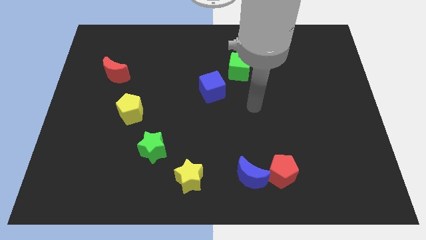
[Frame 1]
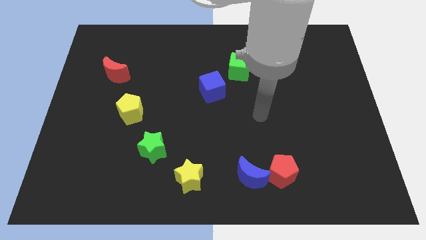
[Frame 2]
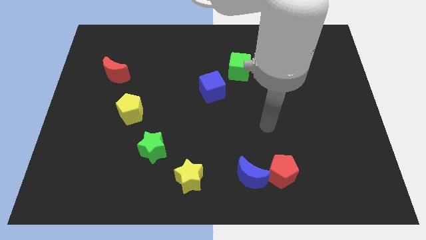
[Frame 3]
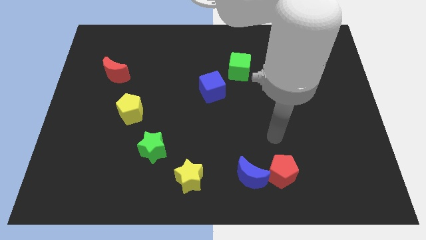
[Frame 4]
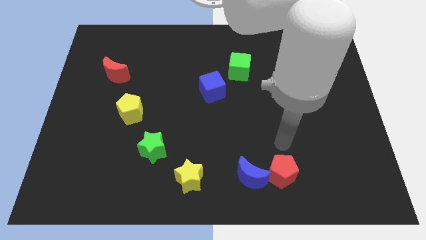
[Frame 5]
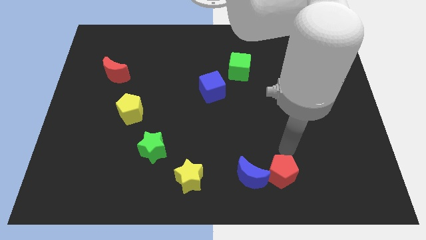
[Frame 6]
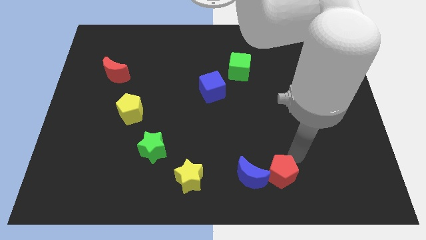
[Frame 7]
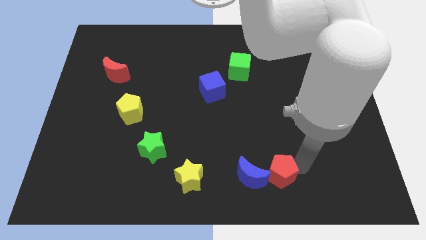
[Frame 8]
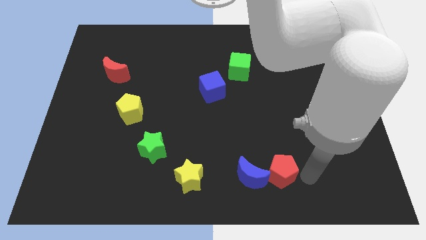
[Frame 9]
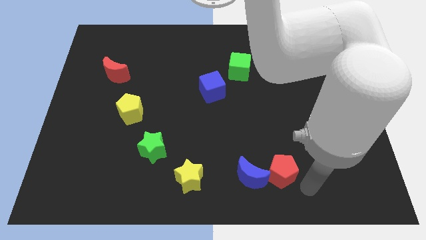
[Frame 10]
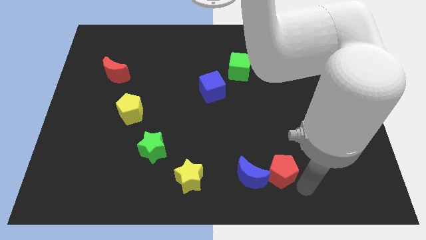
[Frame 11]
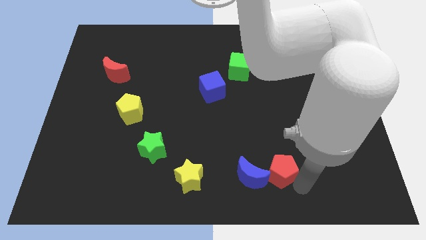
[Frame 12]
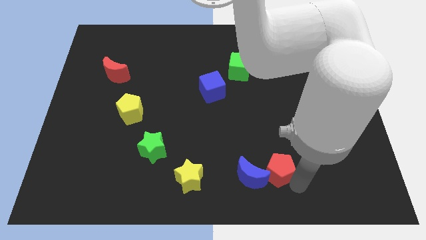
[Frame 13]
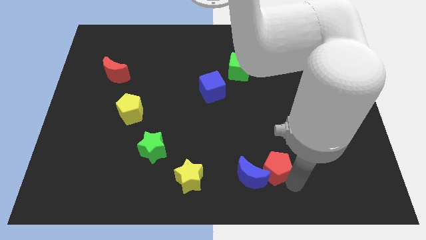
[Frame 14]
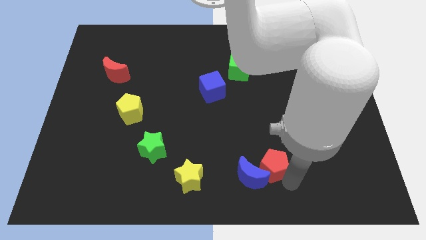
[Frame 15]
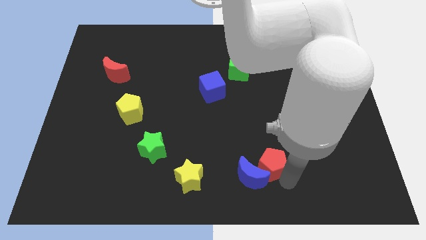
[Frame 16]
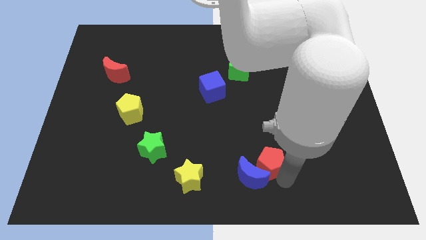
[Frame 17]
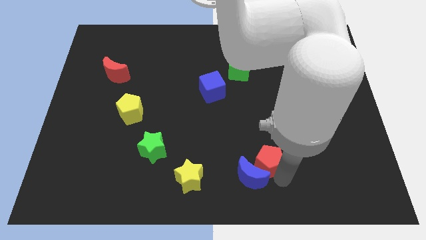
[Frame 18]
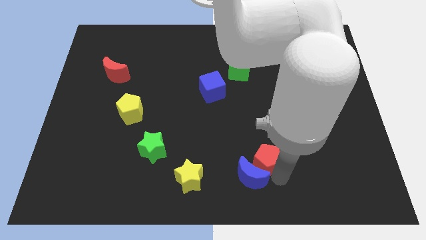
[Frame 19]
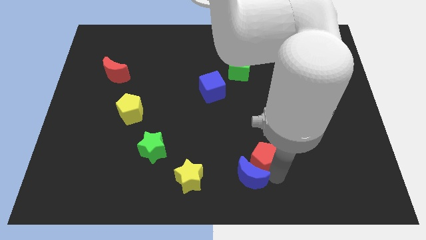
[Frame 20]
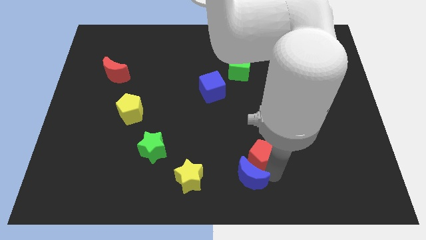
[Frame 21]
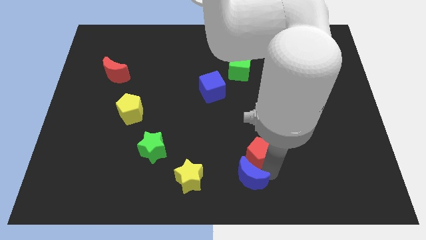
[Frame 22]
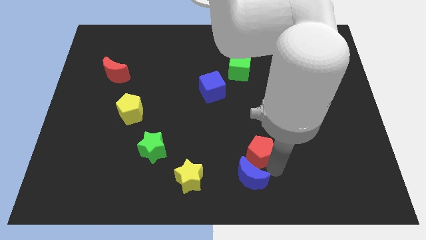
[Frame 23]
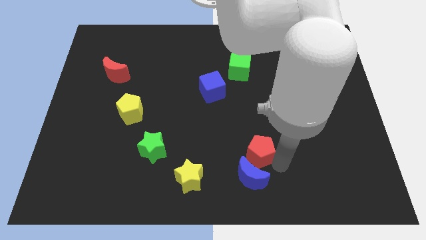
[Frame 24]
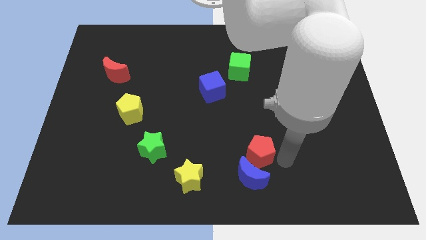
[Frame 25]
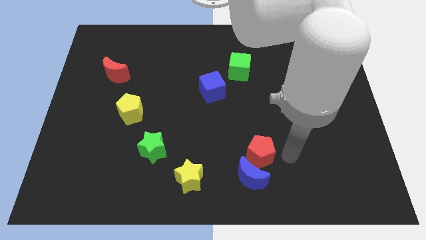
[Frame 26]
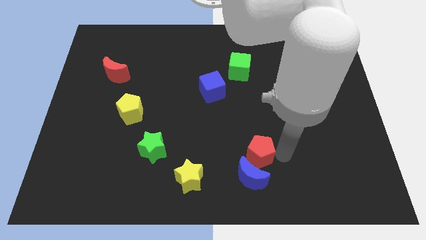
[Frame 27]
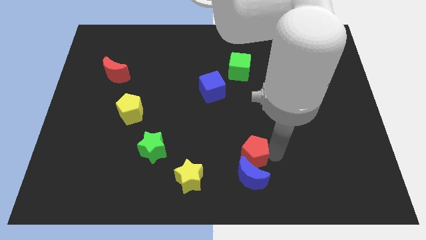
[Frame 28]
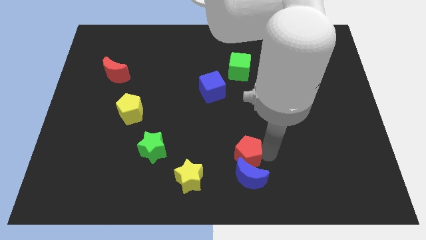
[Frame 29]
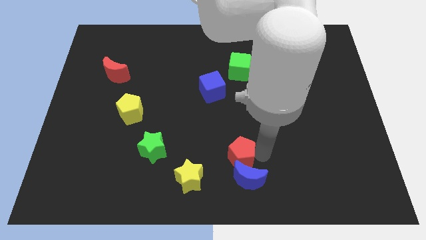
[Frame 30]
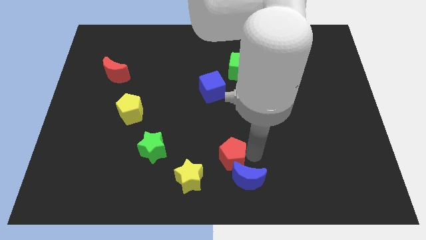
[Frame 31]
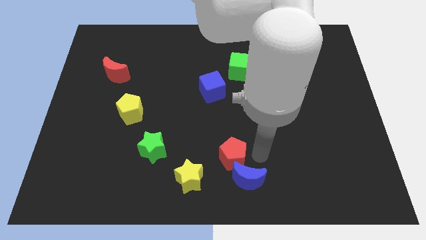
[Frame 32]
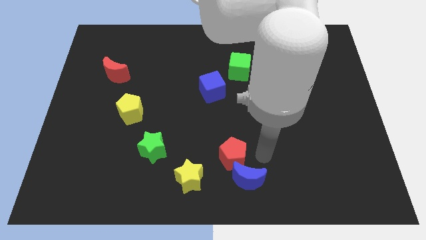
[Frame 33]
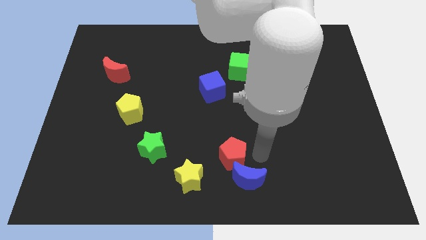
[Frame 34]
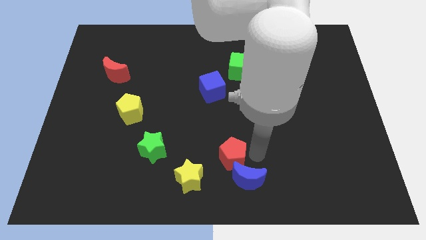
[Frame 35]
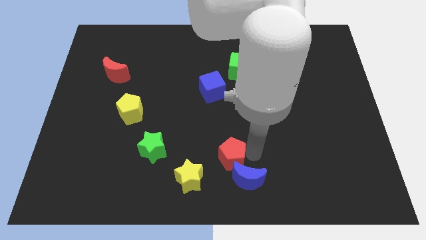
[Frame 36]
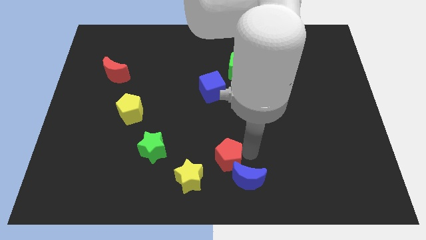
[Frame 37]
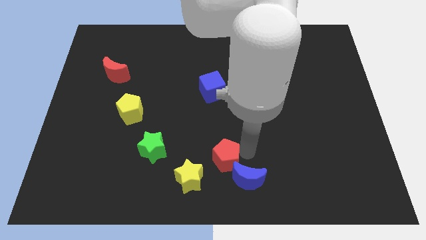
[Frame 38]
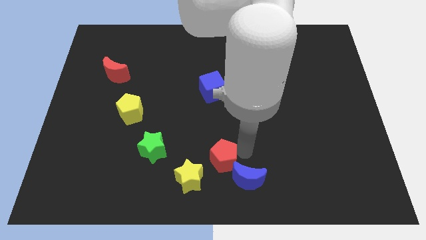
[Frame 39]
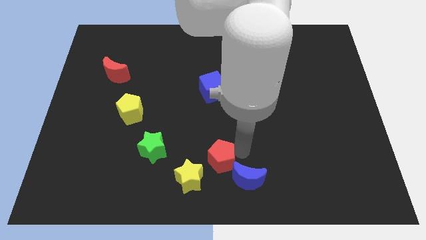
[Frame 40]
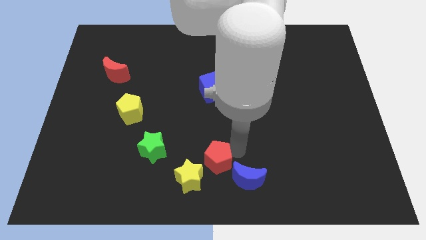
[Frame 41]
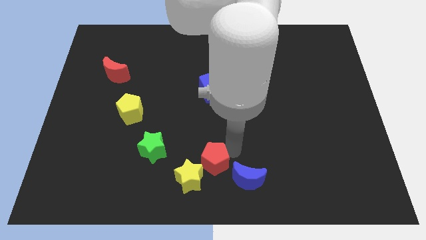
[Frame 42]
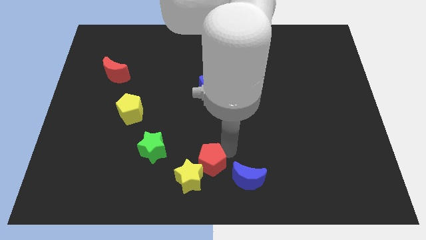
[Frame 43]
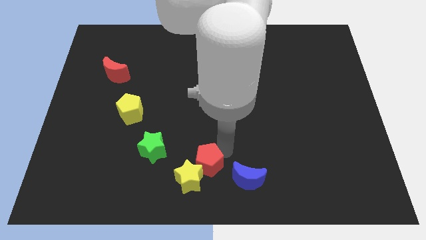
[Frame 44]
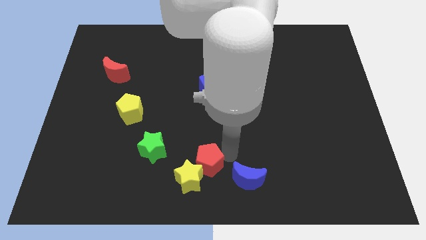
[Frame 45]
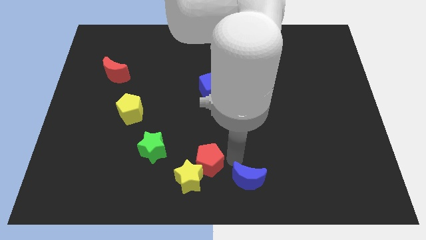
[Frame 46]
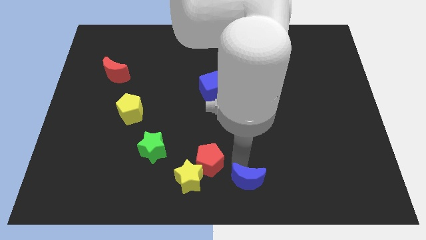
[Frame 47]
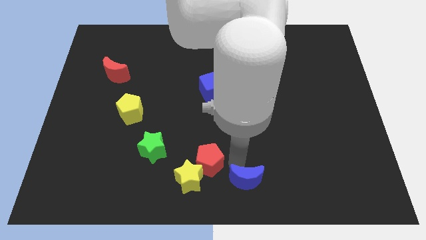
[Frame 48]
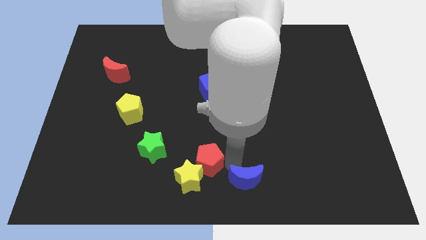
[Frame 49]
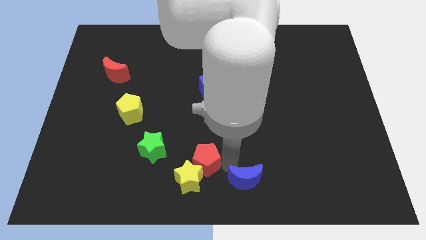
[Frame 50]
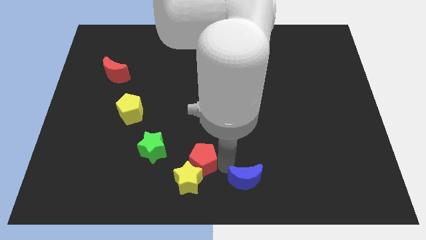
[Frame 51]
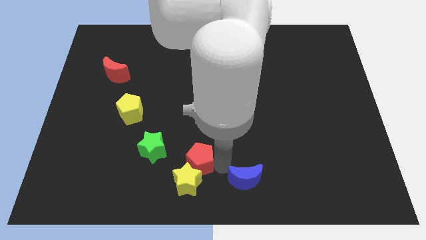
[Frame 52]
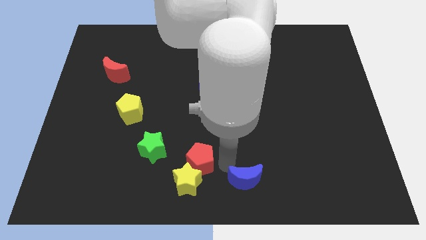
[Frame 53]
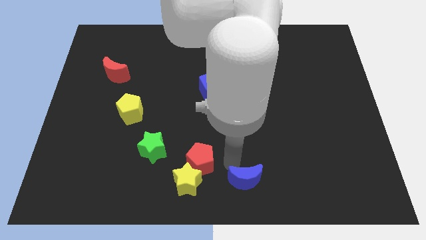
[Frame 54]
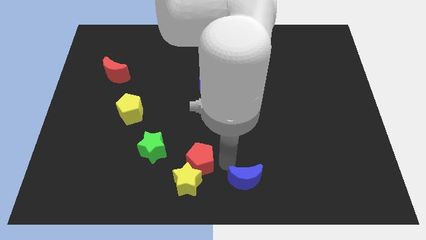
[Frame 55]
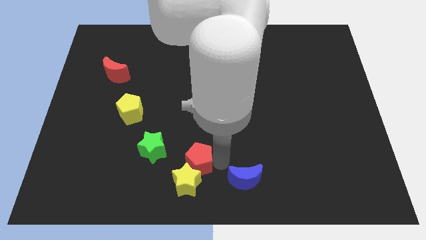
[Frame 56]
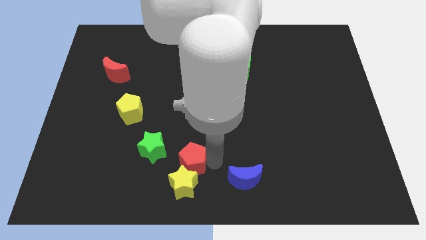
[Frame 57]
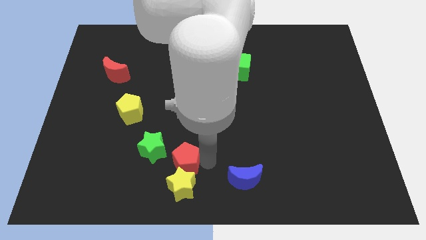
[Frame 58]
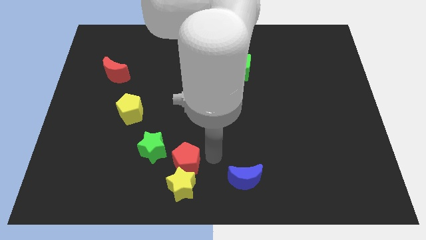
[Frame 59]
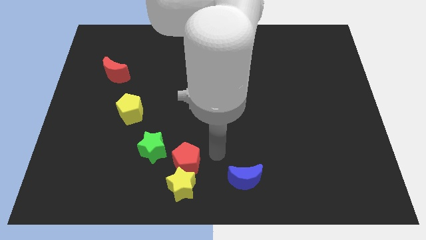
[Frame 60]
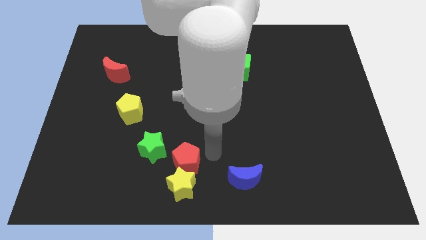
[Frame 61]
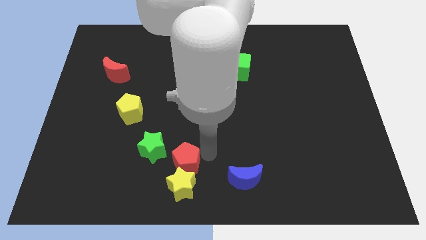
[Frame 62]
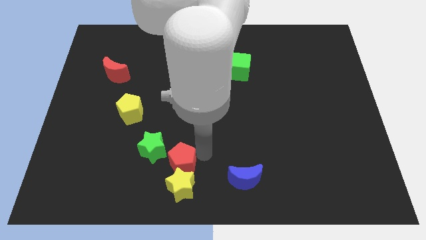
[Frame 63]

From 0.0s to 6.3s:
move the red pentagon to the left

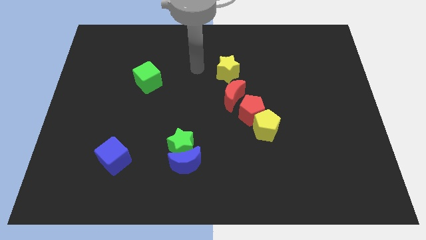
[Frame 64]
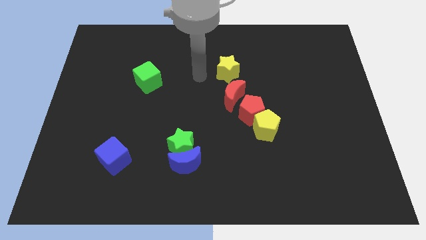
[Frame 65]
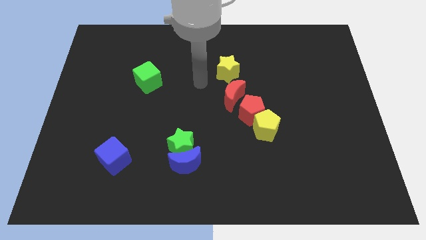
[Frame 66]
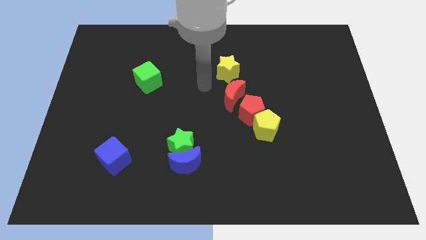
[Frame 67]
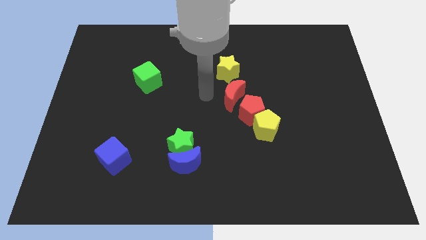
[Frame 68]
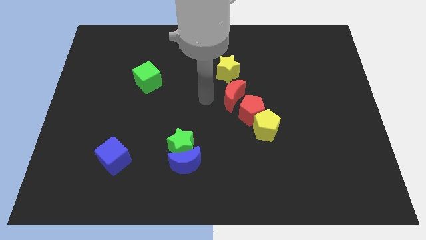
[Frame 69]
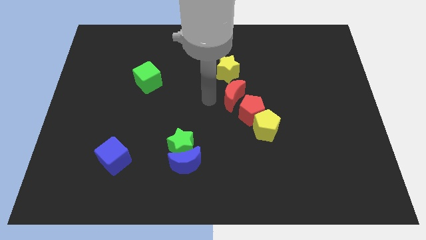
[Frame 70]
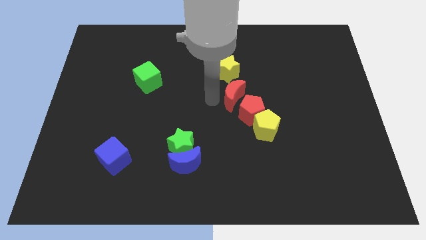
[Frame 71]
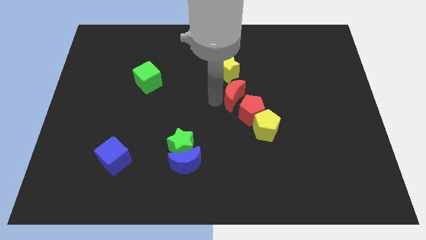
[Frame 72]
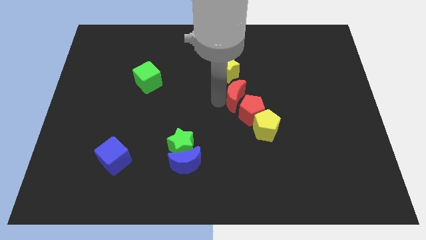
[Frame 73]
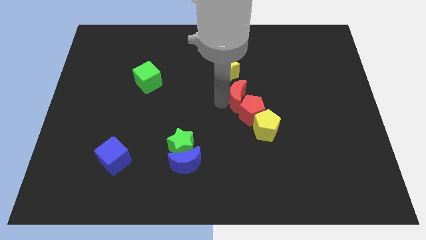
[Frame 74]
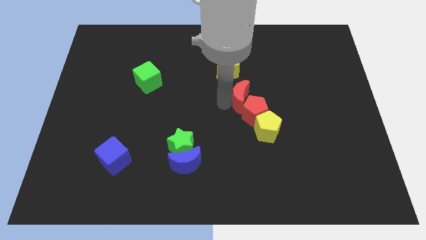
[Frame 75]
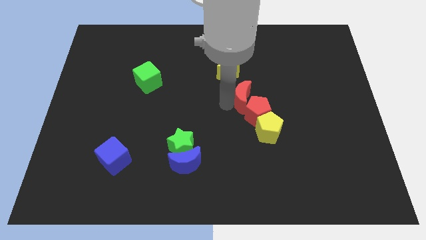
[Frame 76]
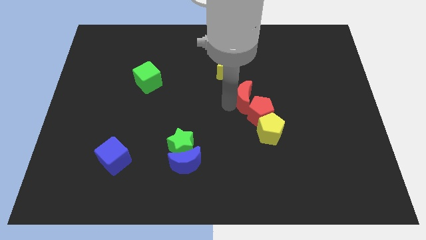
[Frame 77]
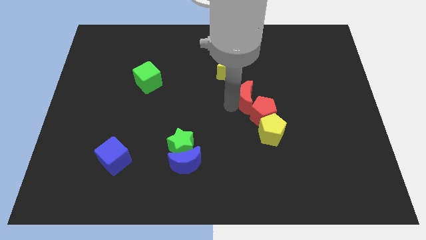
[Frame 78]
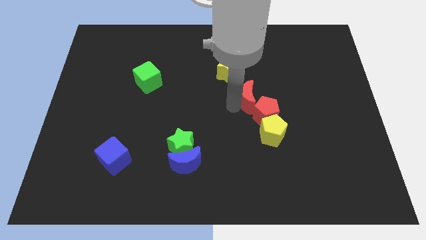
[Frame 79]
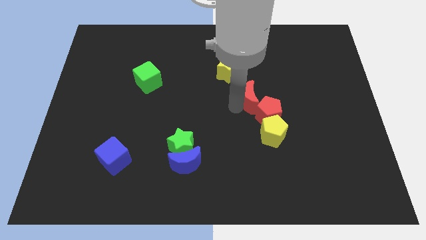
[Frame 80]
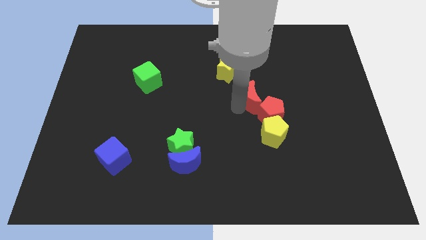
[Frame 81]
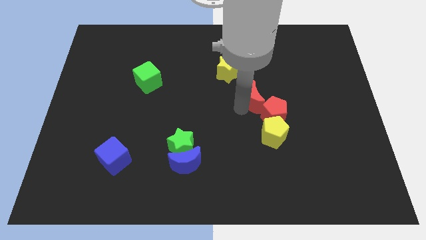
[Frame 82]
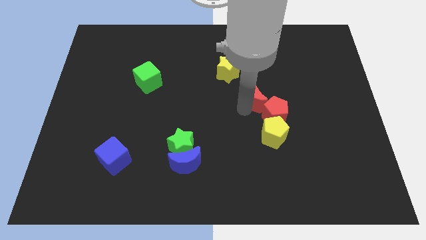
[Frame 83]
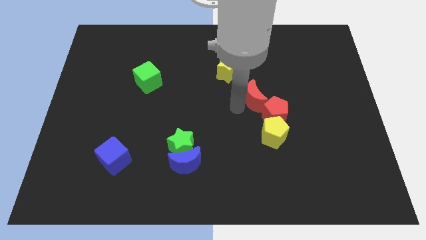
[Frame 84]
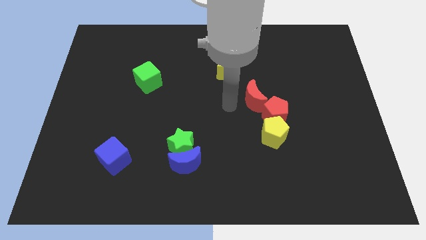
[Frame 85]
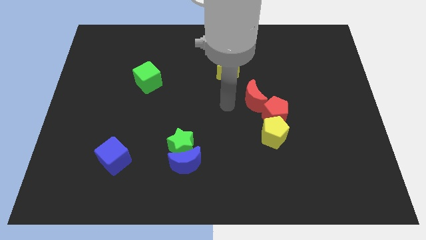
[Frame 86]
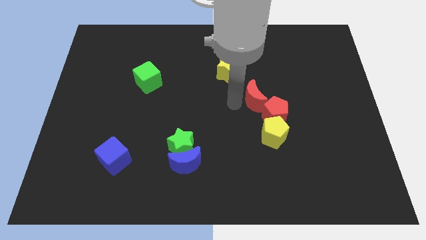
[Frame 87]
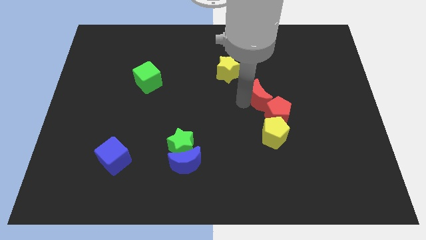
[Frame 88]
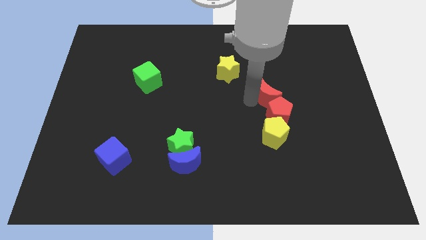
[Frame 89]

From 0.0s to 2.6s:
push the red moon a little to the right
